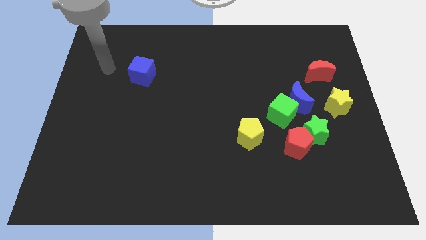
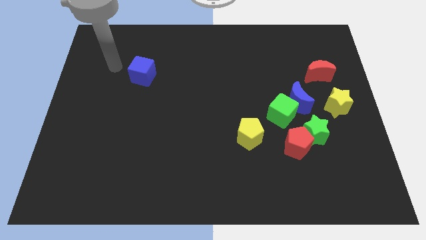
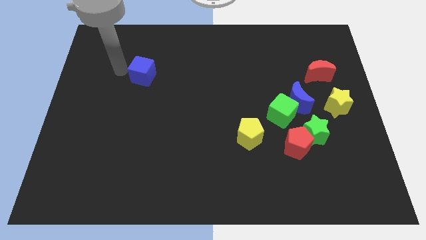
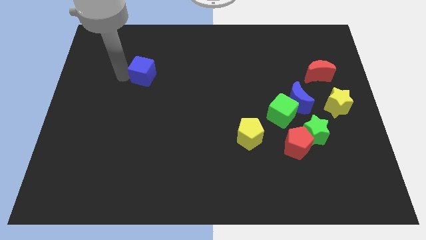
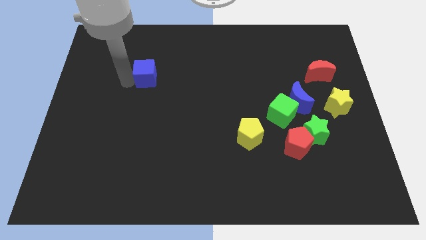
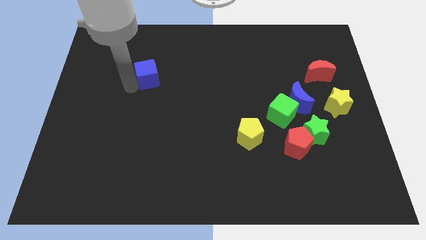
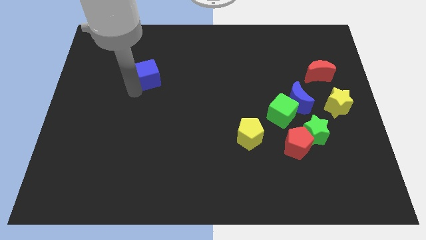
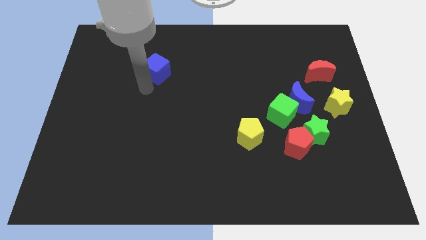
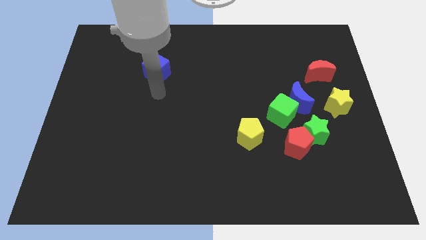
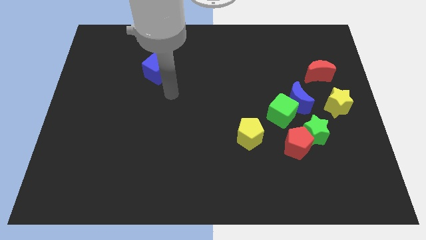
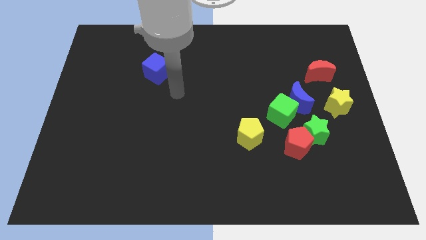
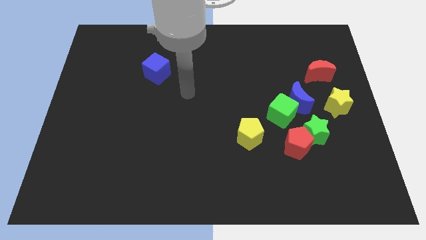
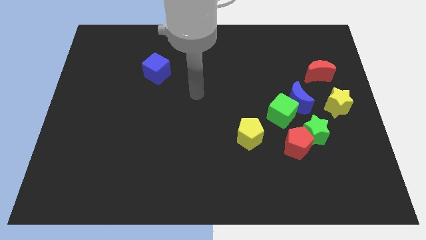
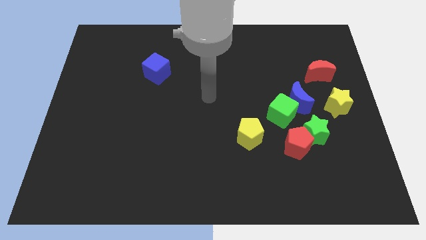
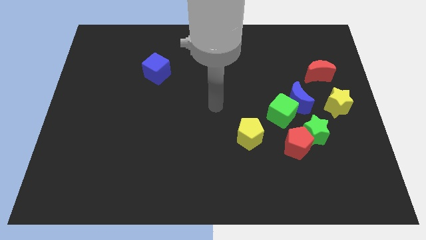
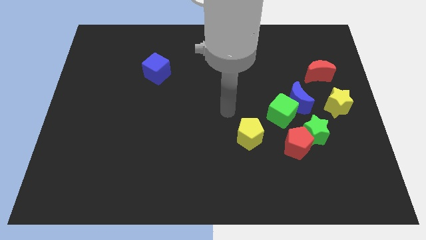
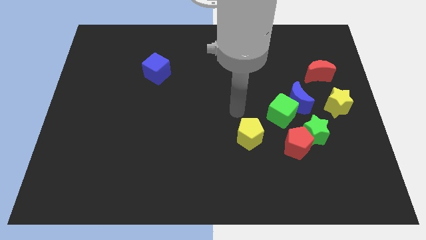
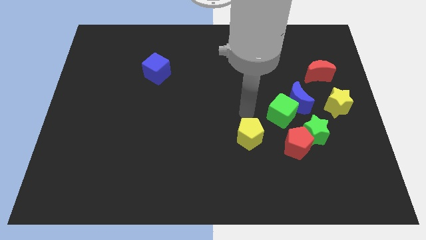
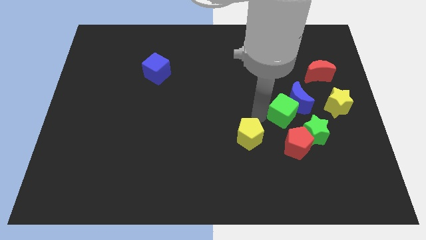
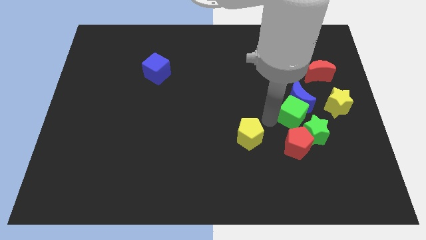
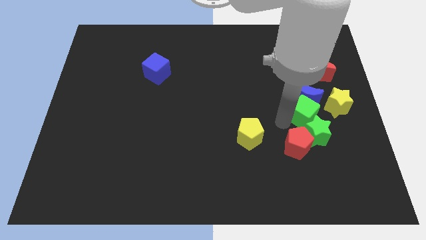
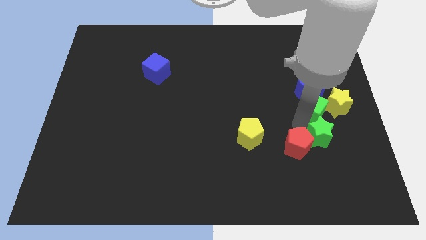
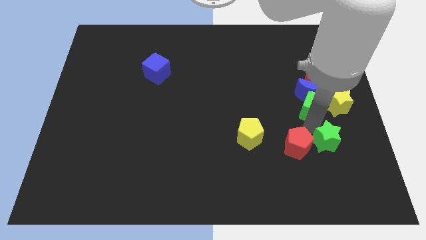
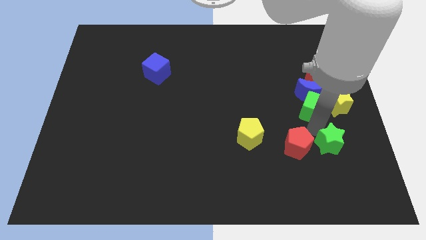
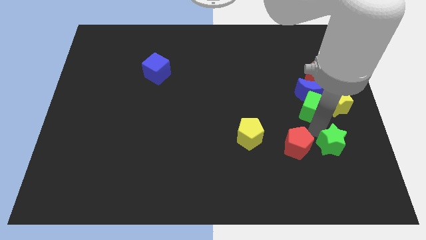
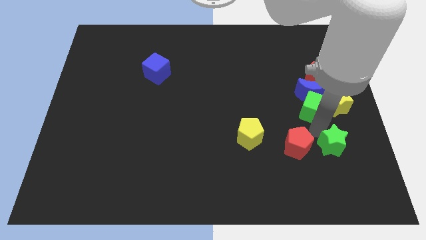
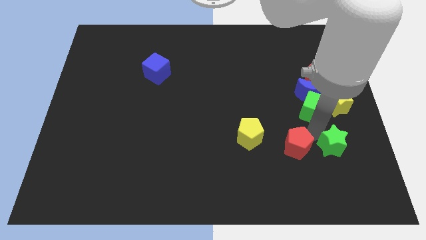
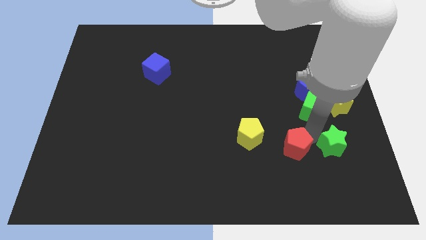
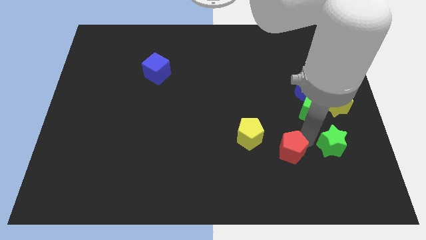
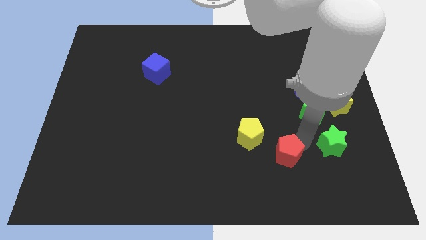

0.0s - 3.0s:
move the red pentagon away from the green star and green cube

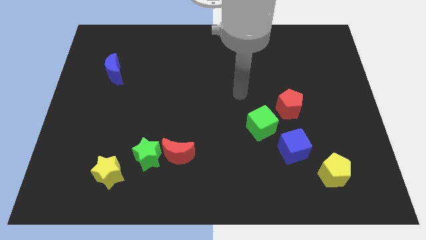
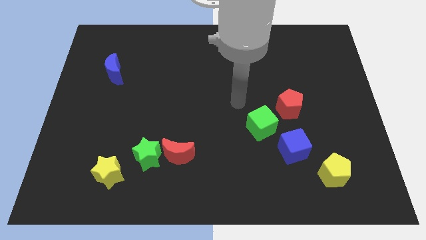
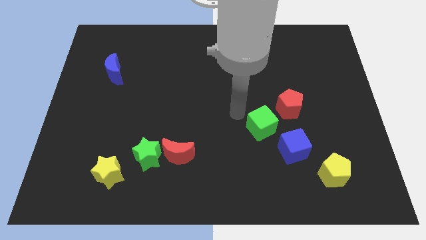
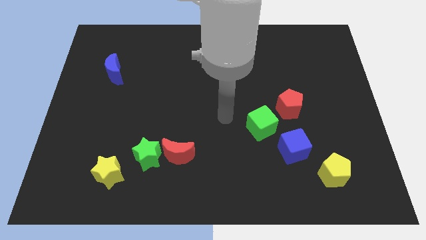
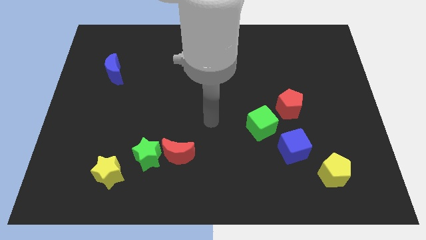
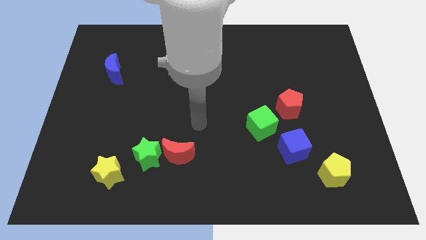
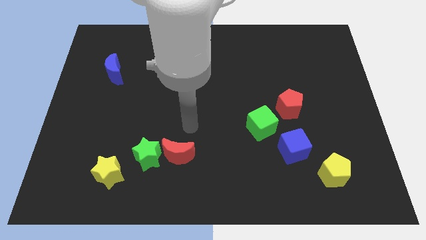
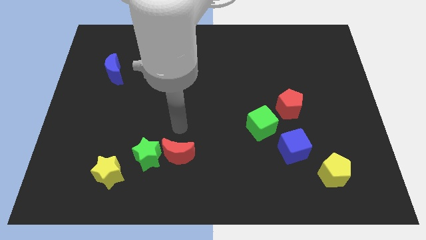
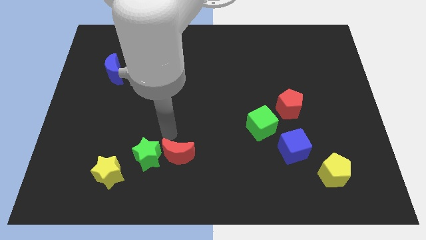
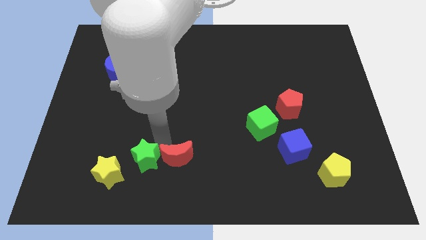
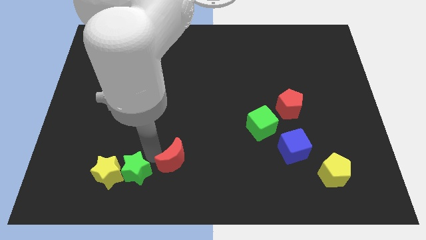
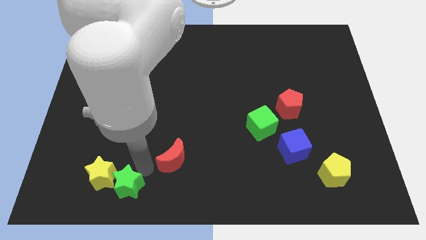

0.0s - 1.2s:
pull the red moon apart from the green star

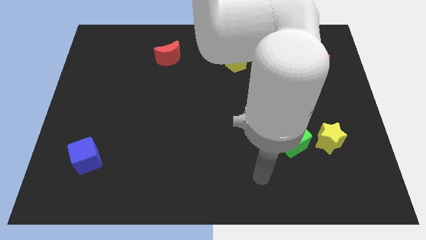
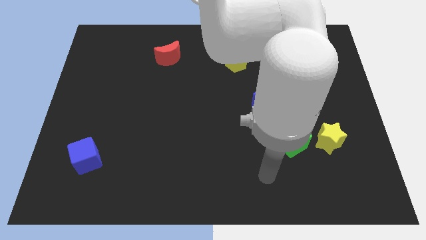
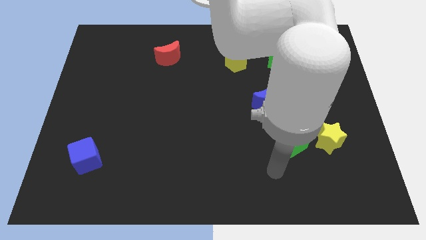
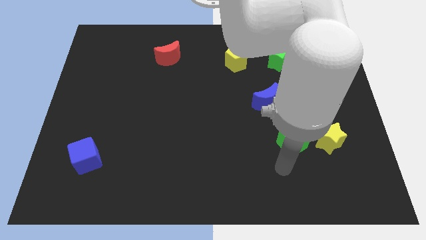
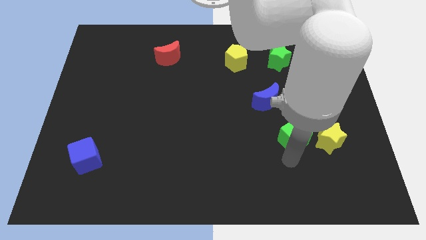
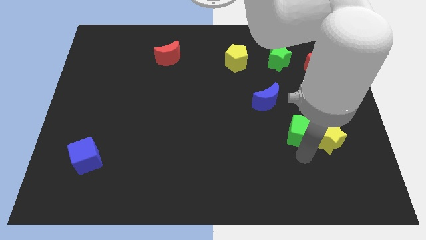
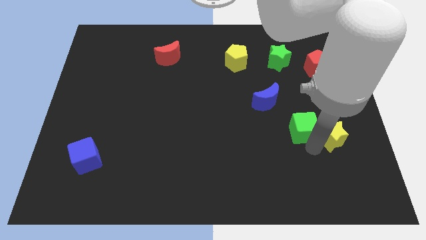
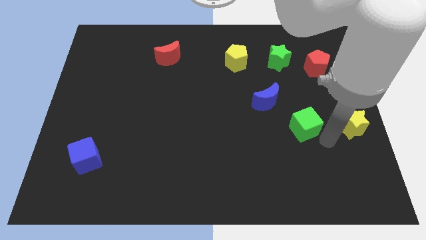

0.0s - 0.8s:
move the green cube away from the yellow star

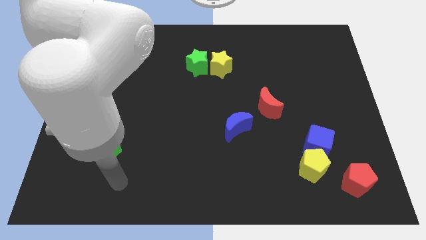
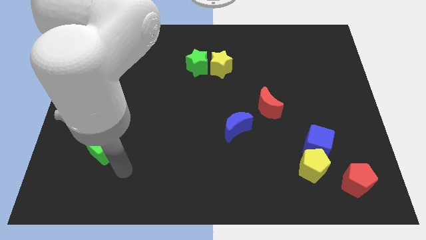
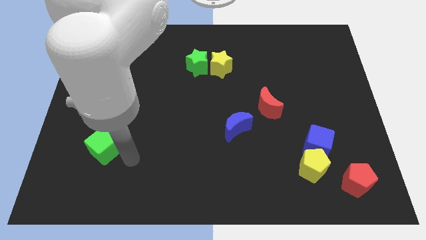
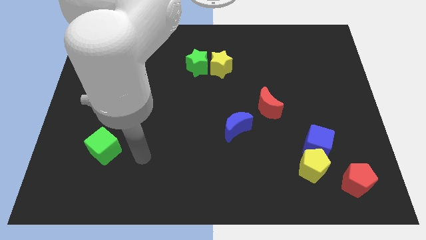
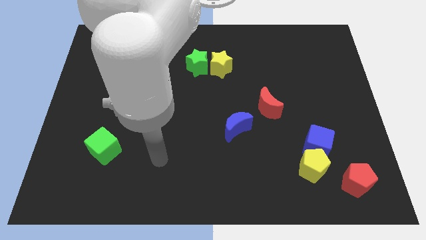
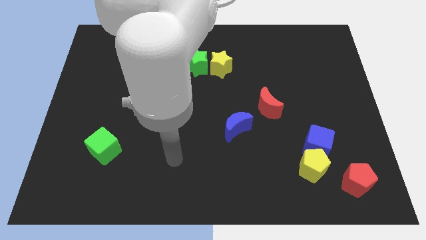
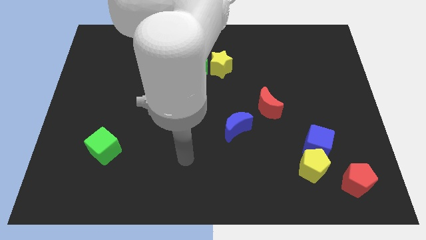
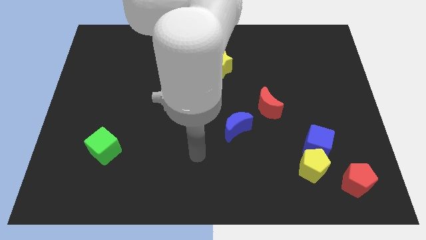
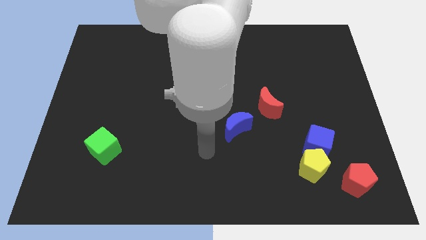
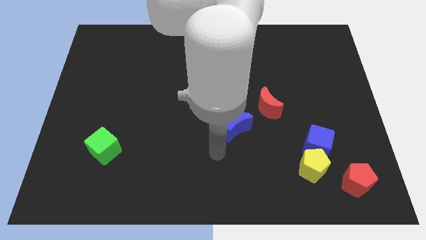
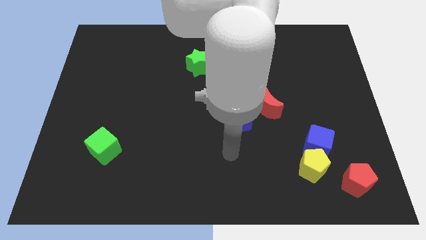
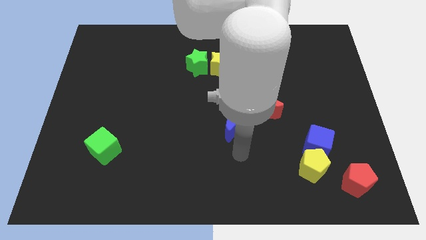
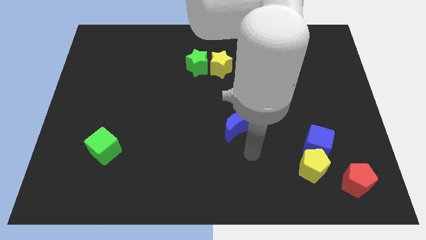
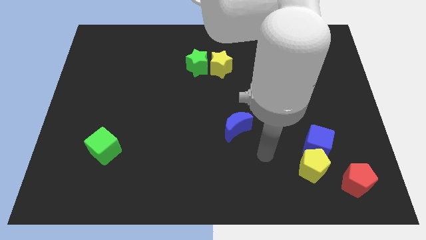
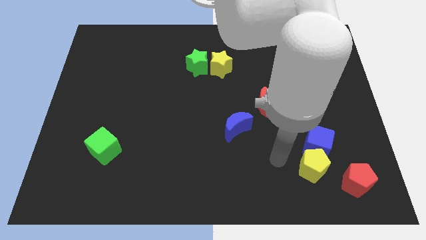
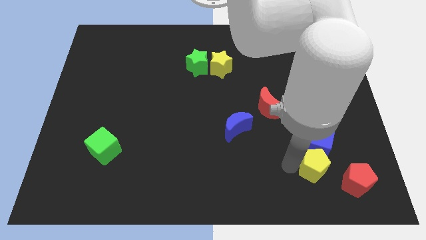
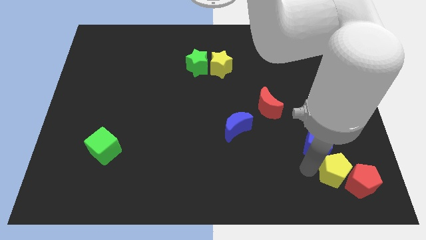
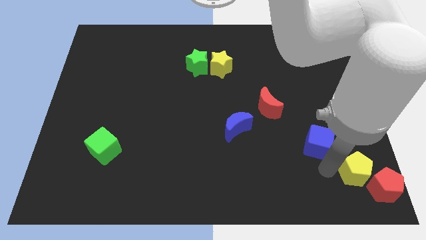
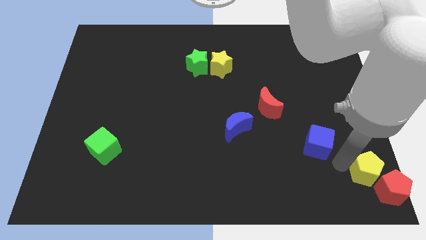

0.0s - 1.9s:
move the blue cube away from the yellow pentagon

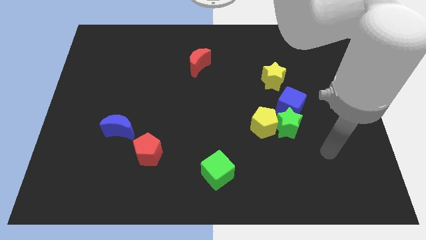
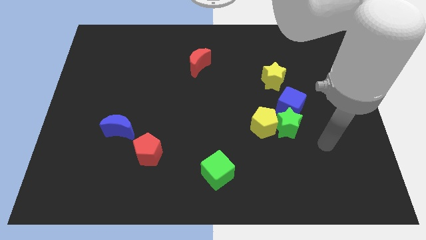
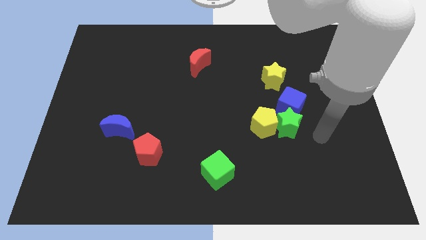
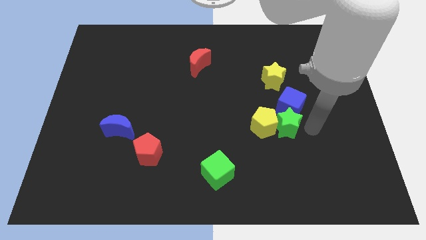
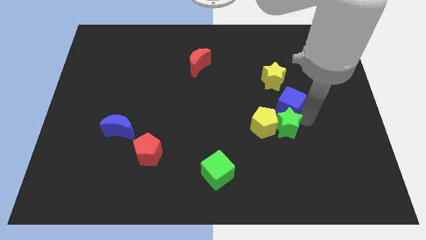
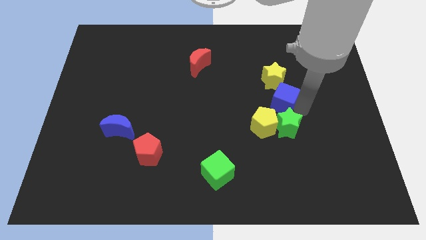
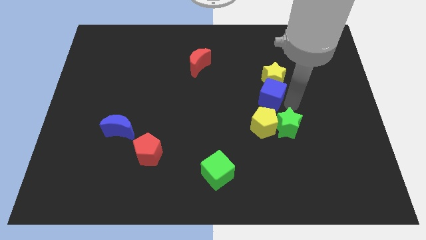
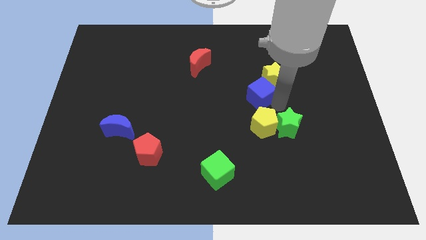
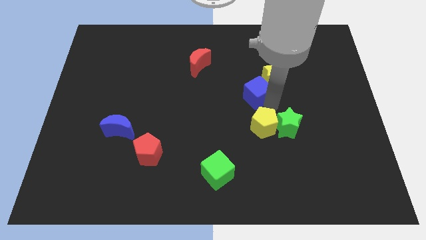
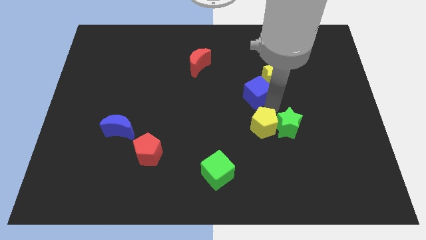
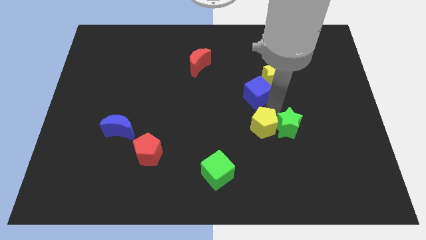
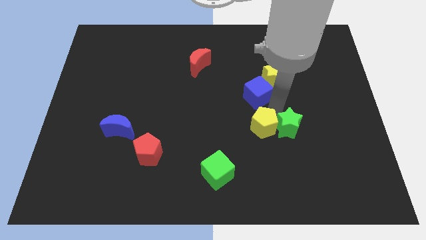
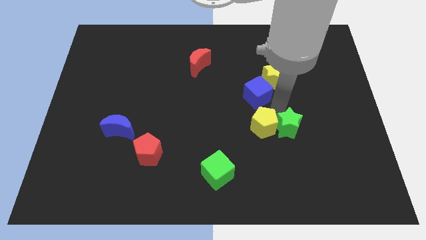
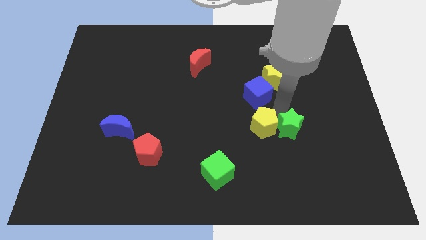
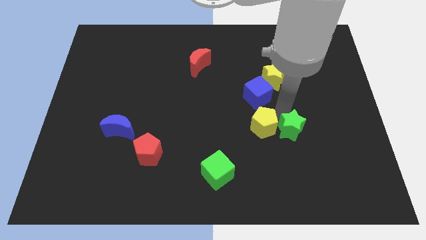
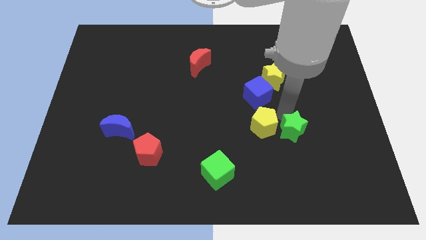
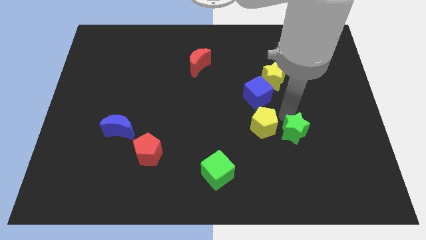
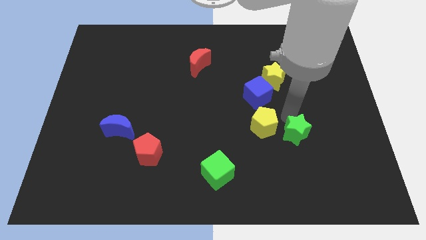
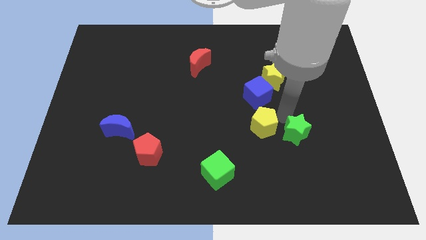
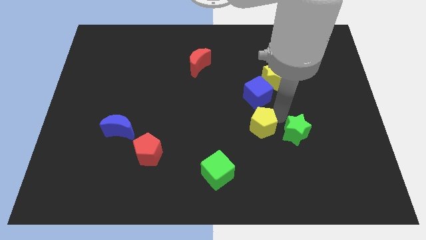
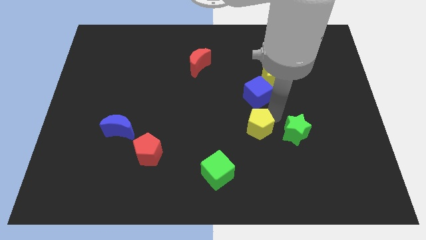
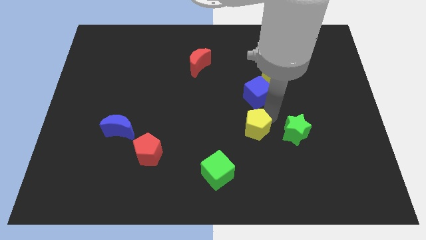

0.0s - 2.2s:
separate the green star from the yellow pentagon and blue cube
